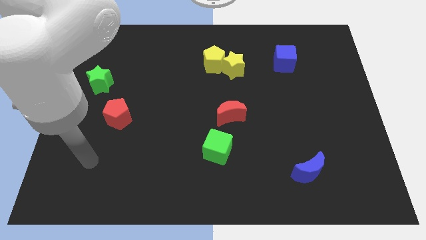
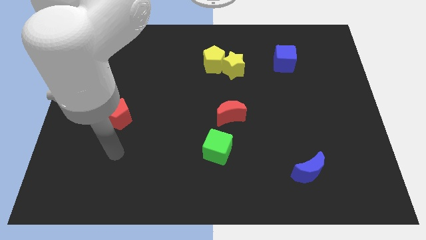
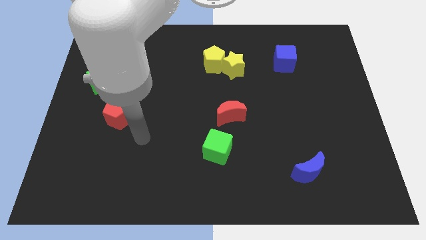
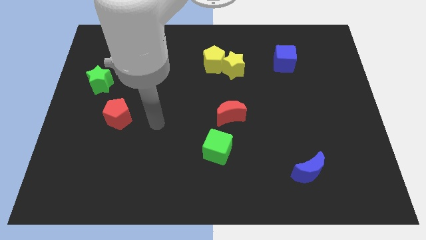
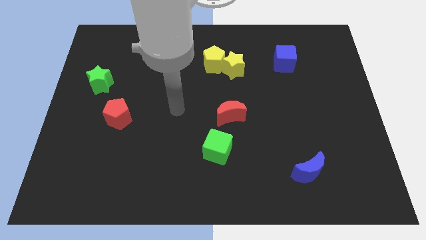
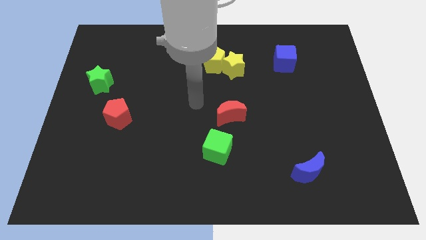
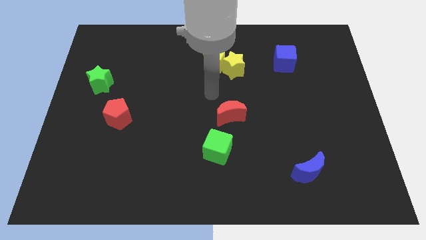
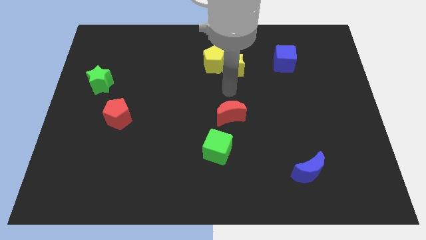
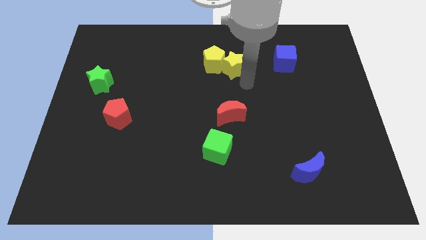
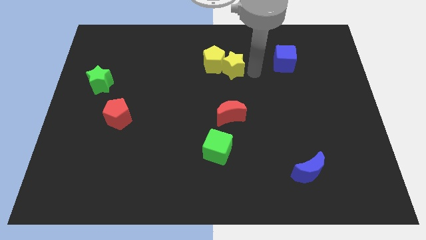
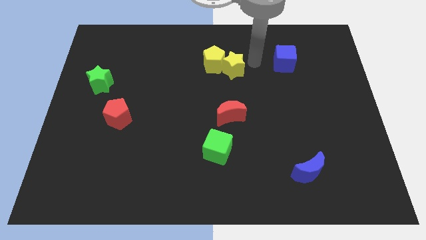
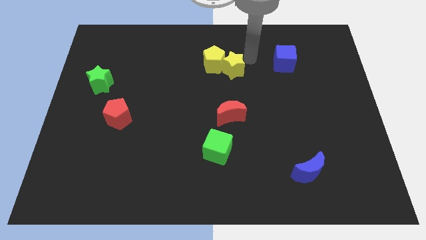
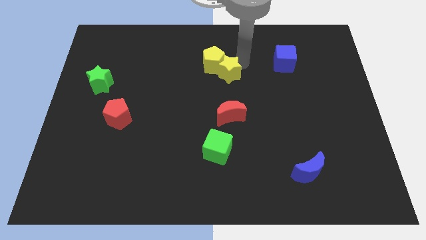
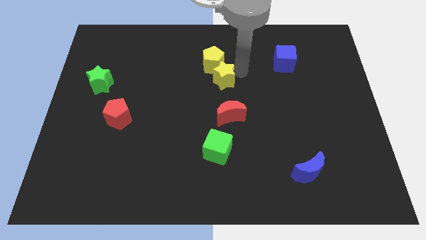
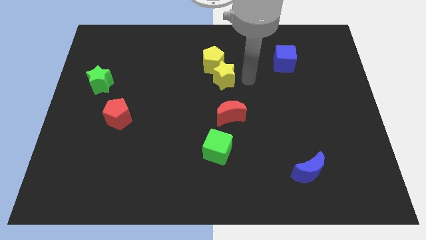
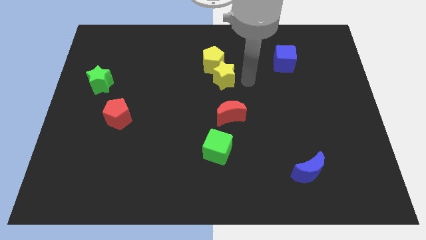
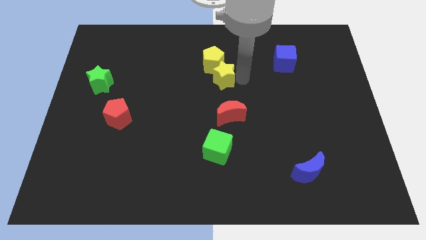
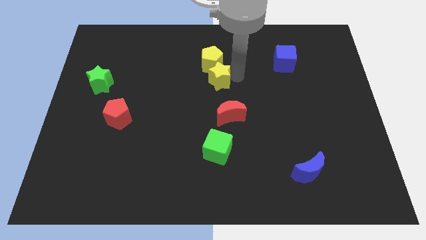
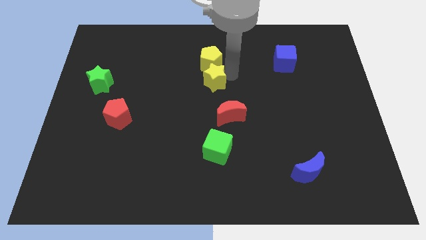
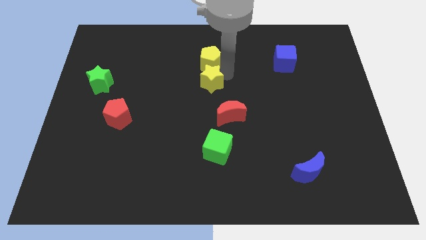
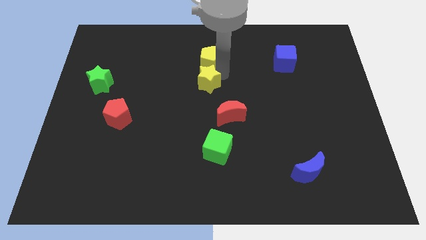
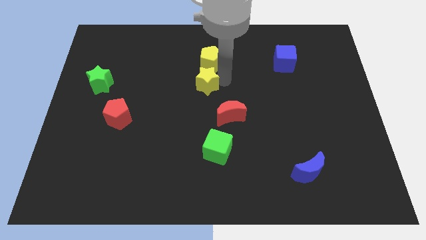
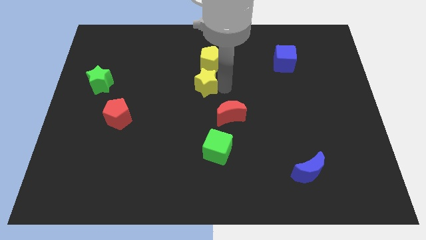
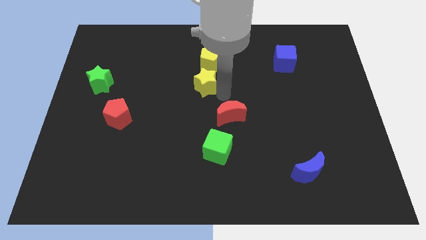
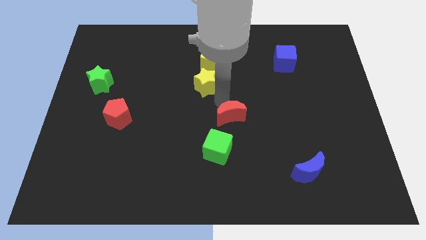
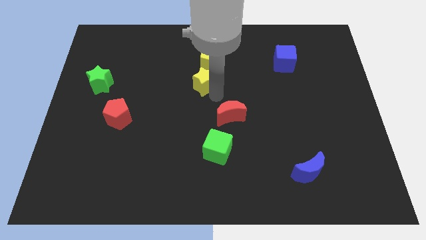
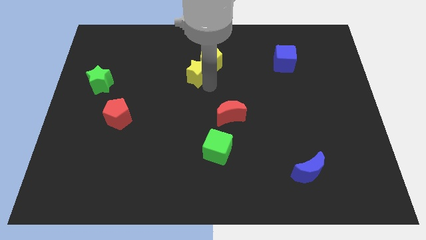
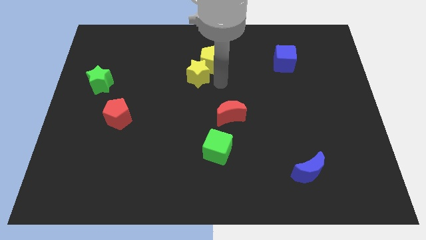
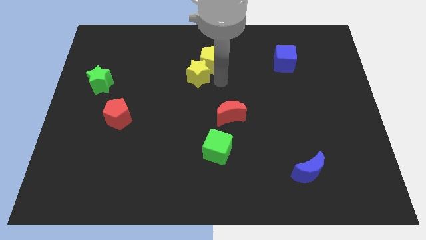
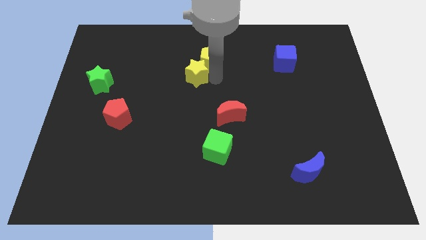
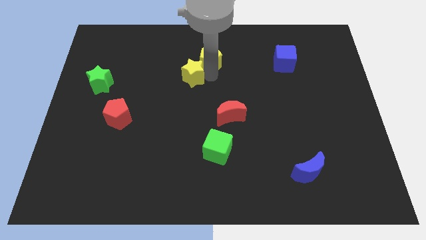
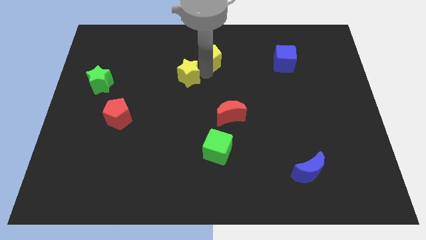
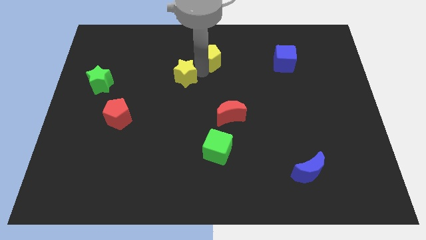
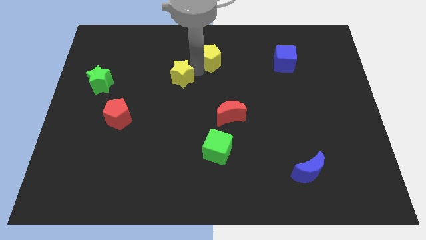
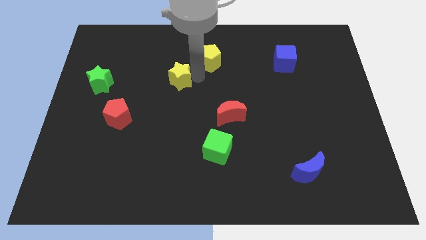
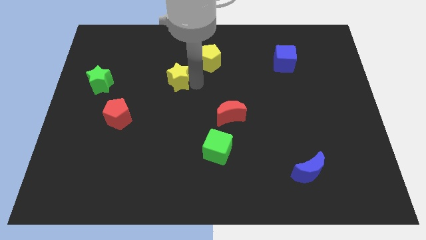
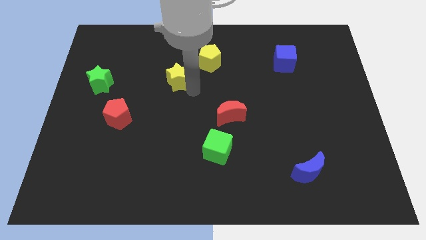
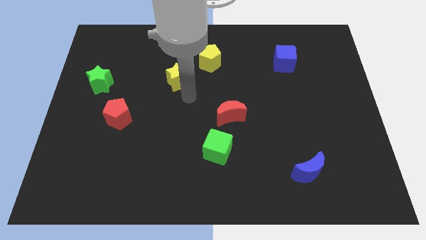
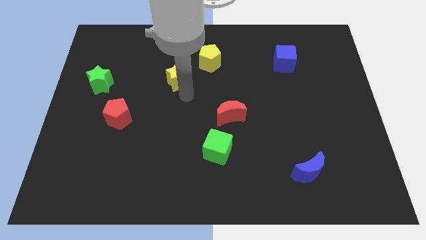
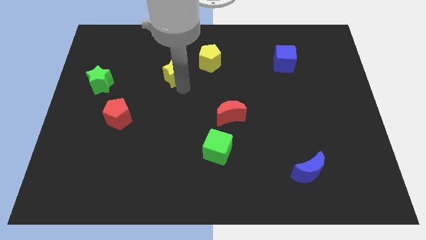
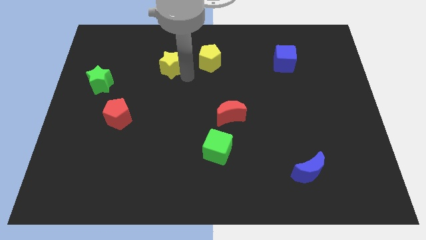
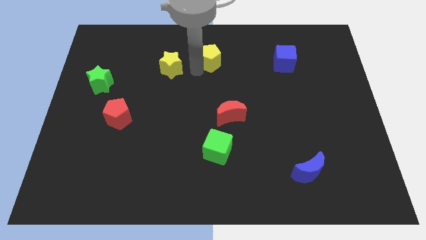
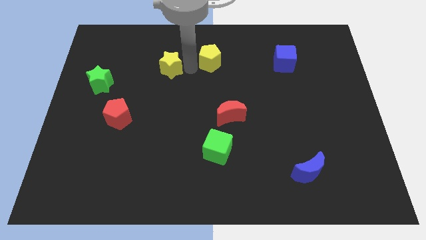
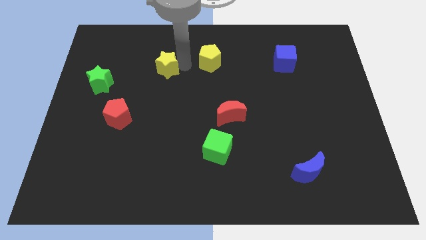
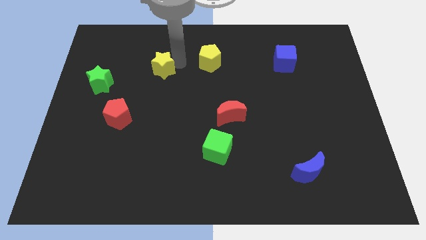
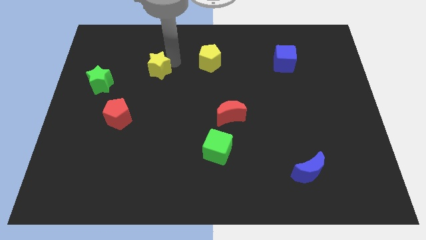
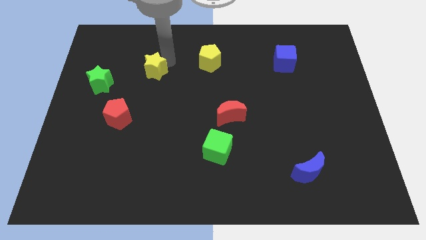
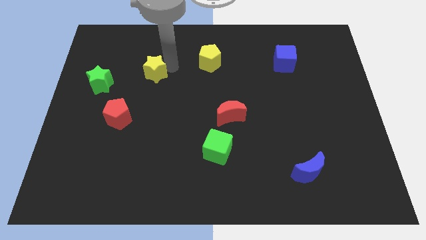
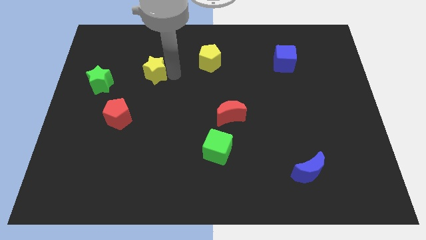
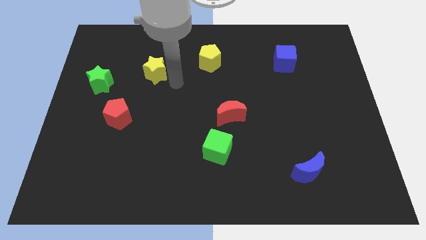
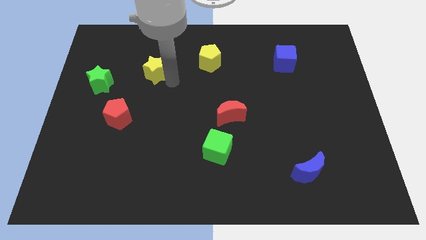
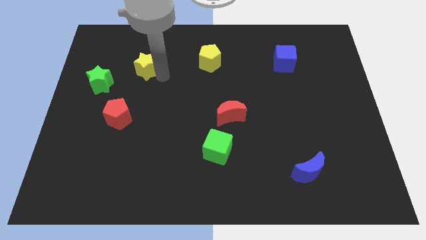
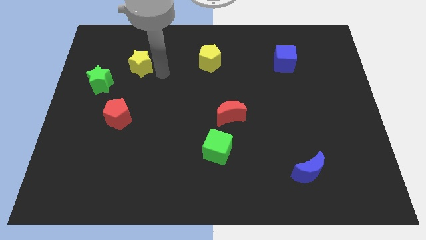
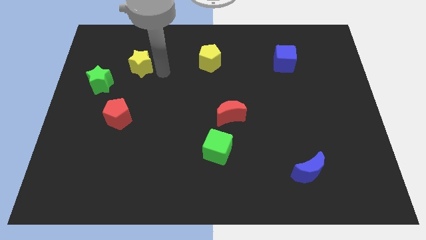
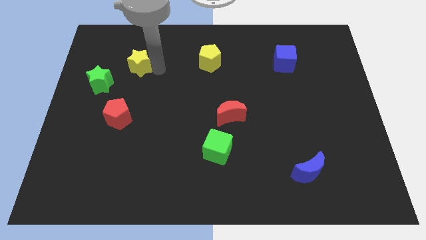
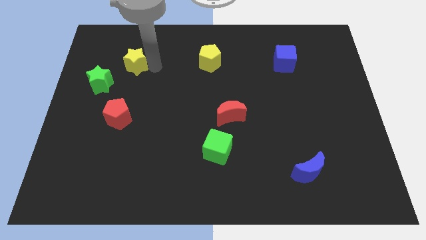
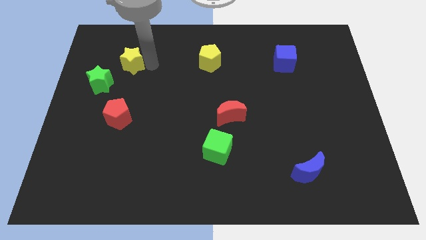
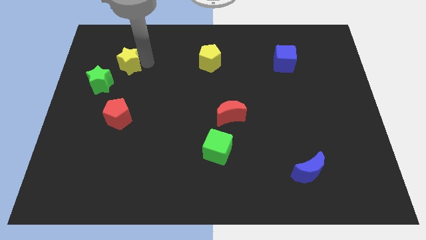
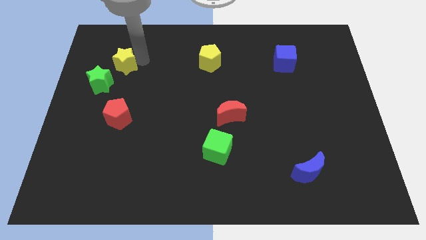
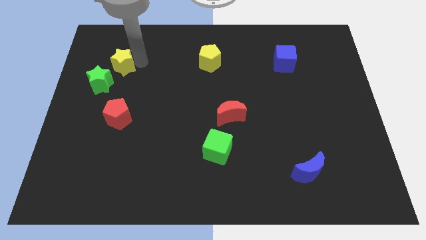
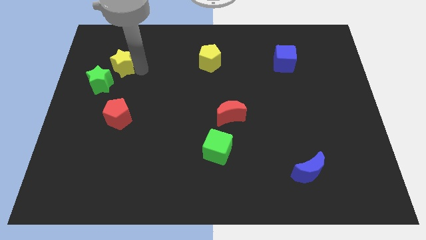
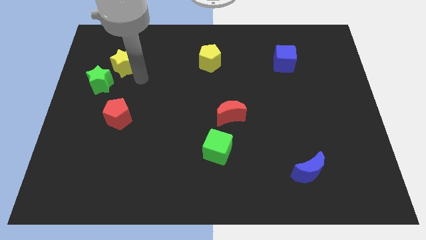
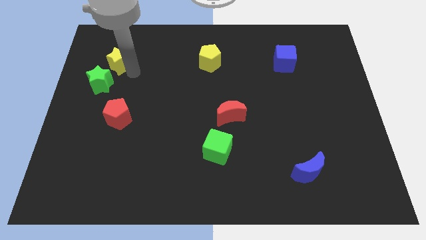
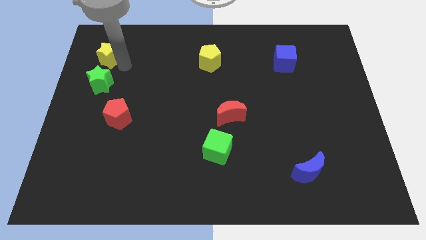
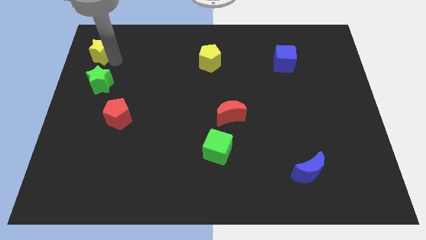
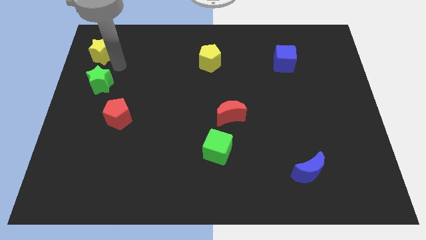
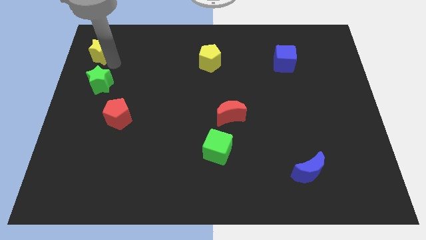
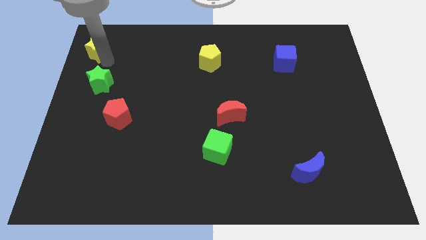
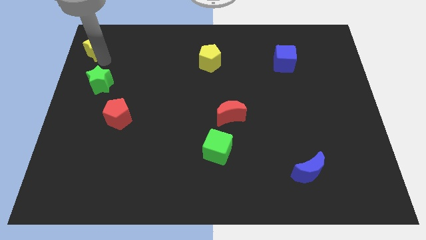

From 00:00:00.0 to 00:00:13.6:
push the yellow star to the upper left corner
